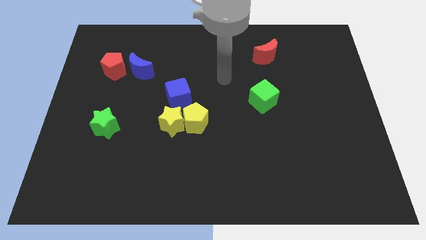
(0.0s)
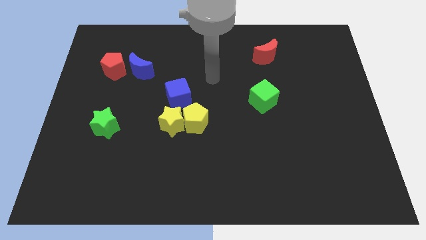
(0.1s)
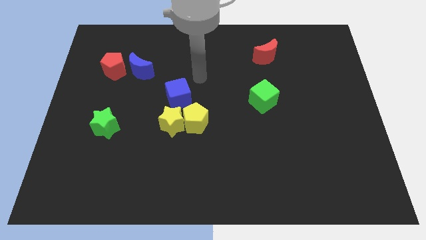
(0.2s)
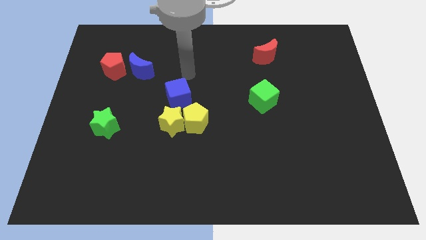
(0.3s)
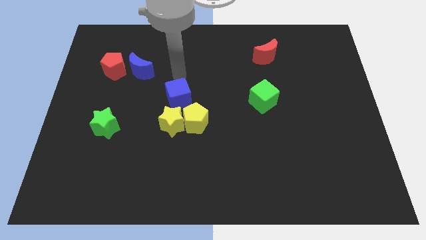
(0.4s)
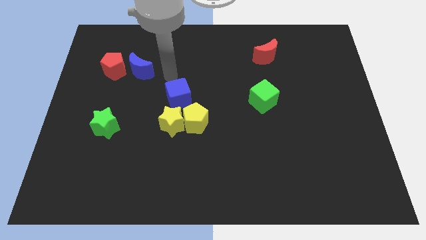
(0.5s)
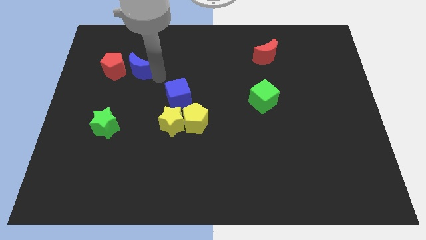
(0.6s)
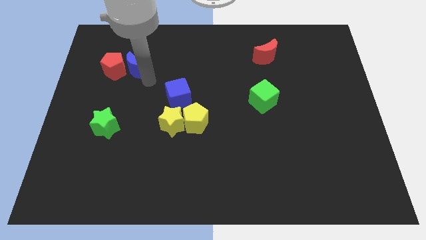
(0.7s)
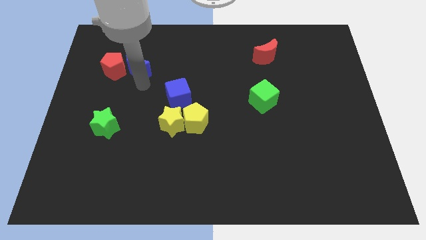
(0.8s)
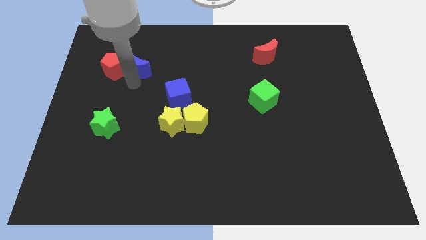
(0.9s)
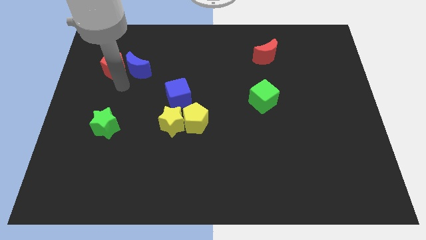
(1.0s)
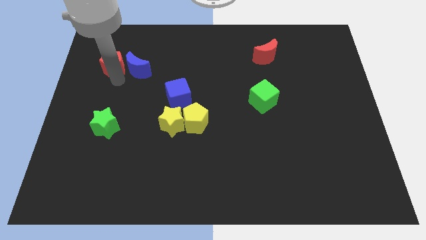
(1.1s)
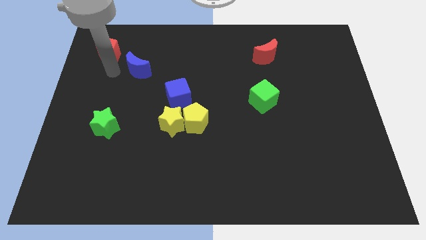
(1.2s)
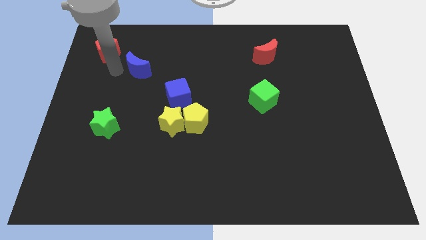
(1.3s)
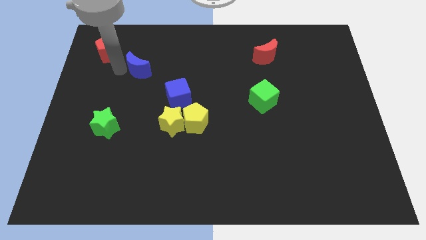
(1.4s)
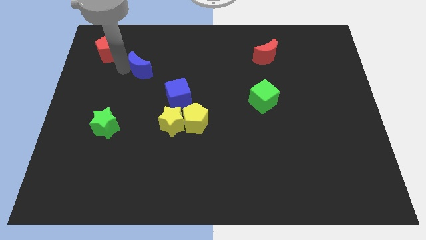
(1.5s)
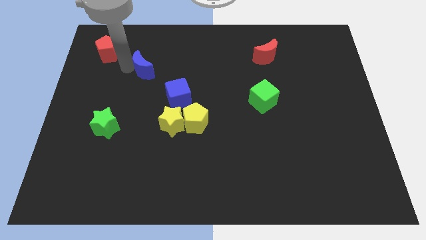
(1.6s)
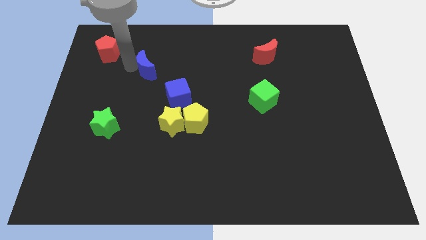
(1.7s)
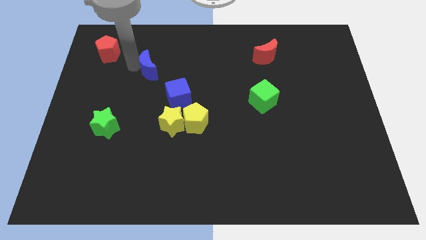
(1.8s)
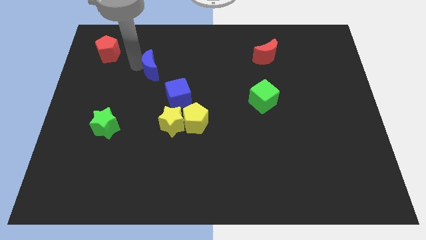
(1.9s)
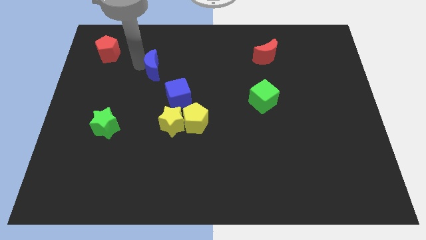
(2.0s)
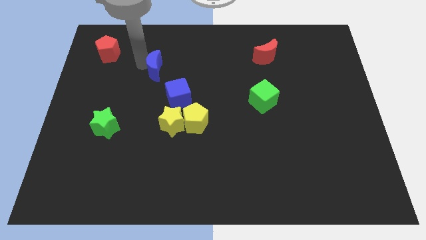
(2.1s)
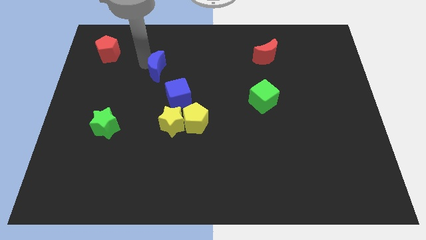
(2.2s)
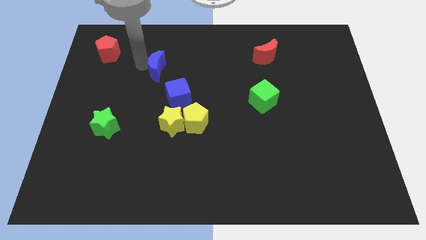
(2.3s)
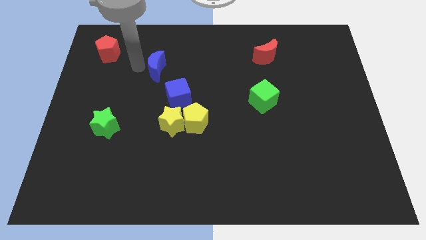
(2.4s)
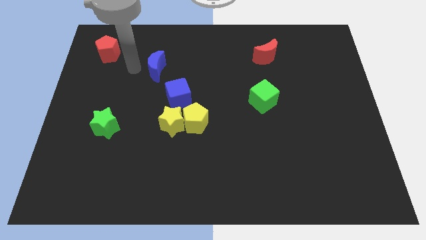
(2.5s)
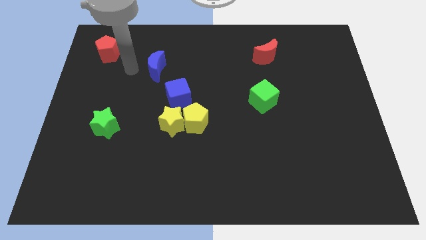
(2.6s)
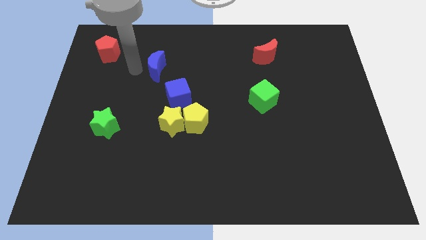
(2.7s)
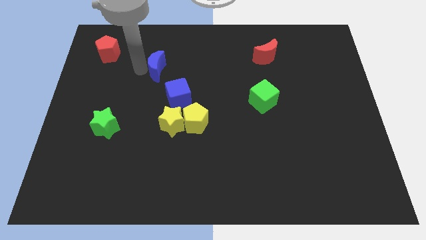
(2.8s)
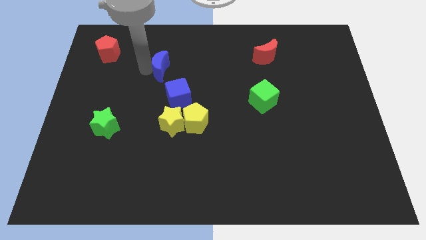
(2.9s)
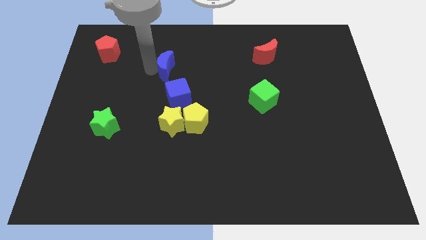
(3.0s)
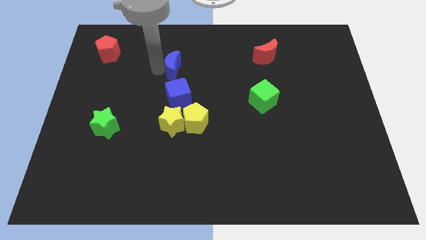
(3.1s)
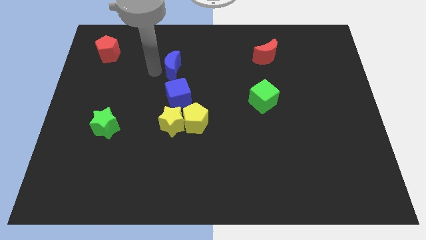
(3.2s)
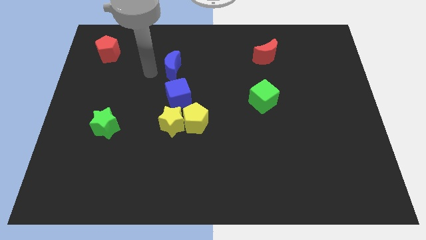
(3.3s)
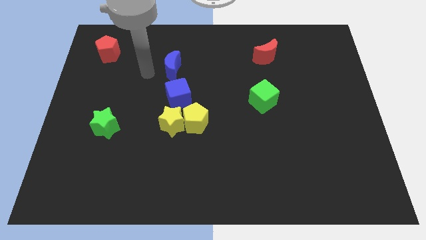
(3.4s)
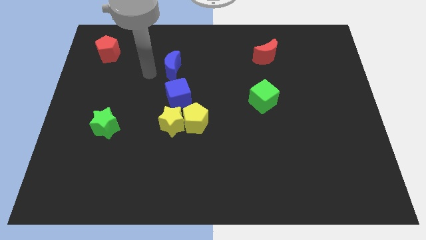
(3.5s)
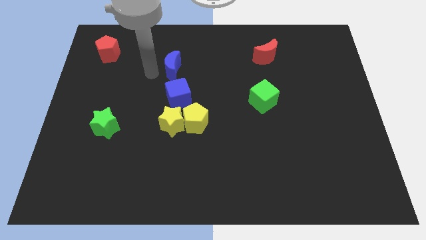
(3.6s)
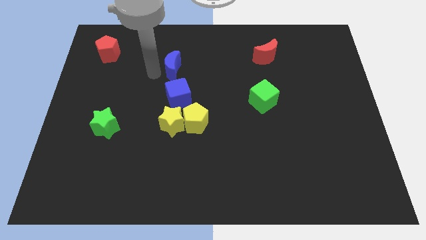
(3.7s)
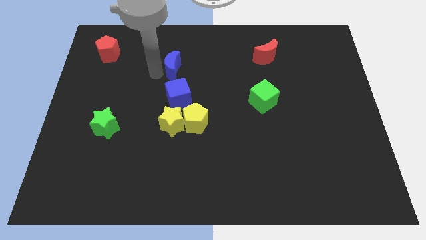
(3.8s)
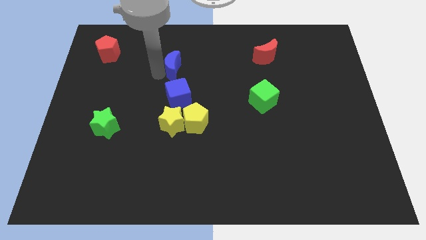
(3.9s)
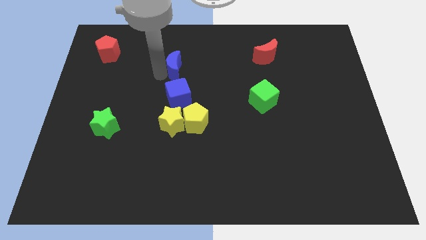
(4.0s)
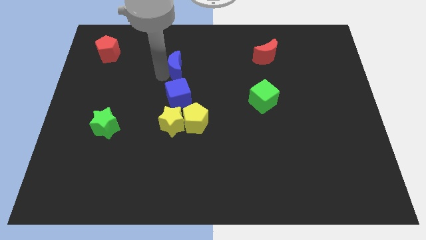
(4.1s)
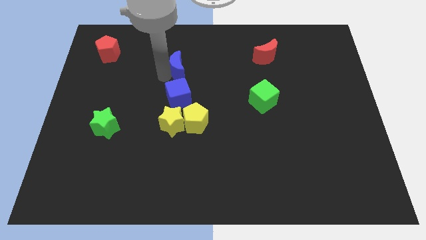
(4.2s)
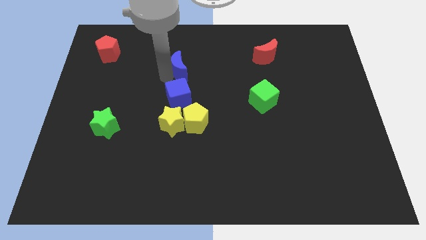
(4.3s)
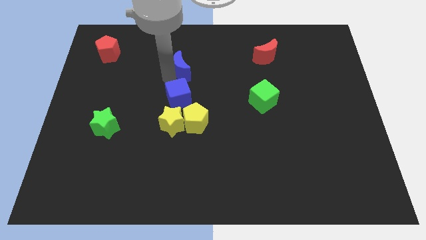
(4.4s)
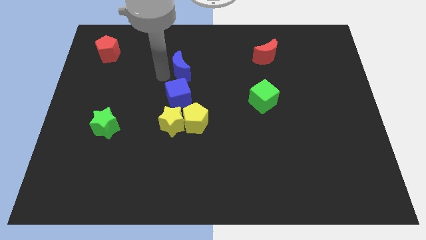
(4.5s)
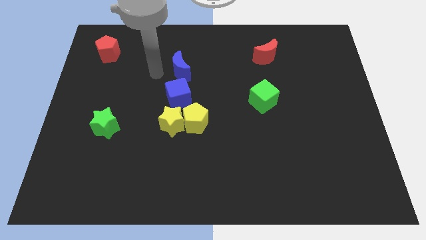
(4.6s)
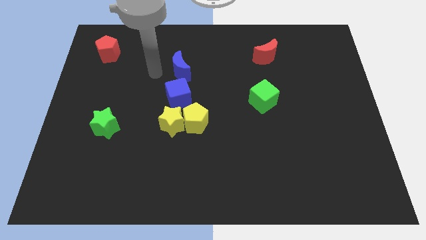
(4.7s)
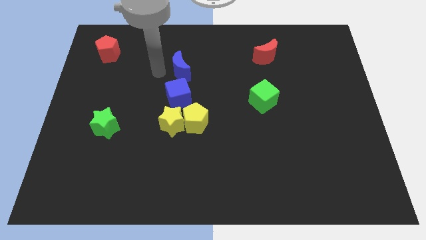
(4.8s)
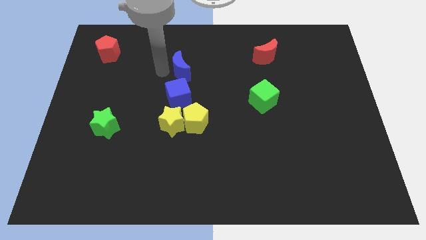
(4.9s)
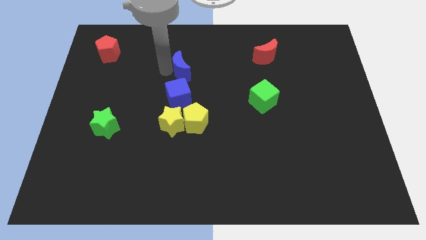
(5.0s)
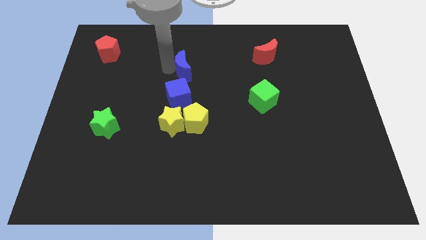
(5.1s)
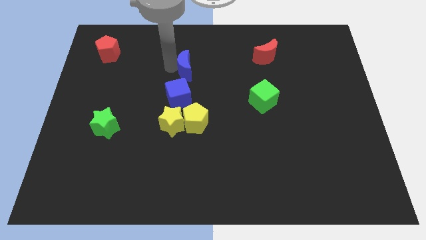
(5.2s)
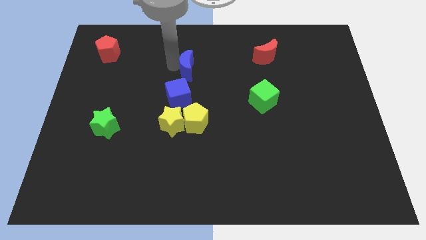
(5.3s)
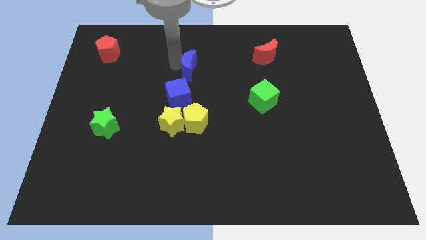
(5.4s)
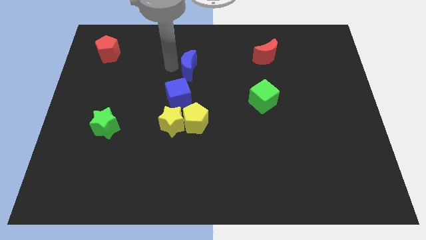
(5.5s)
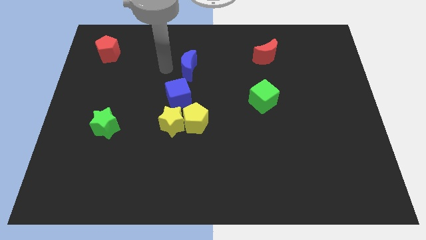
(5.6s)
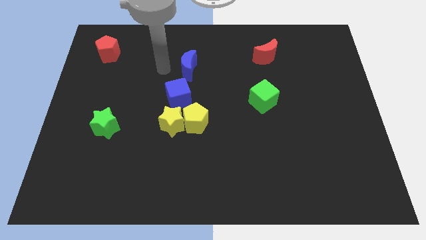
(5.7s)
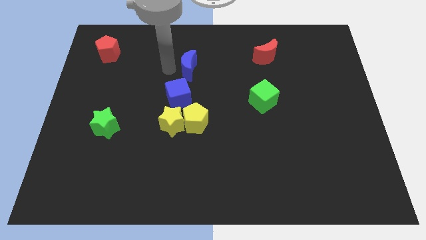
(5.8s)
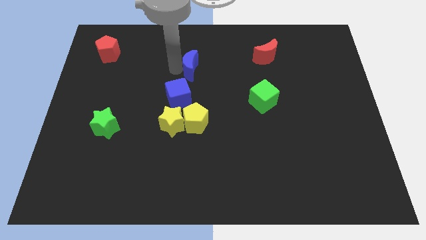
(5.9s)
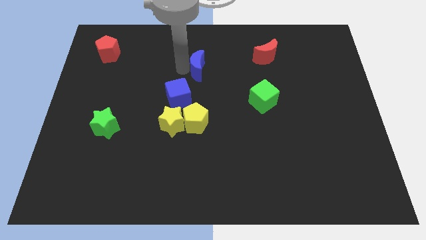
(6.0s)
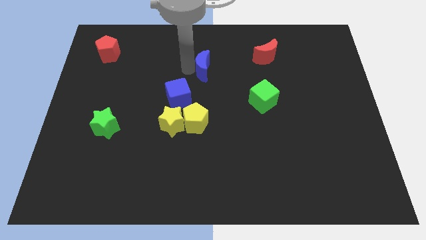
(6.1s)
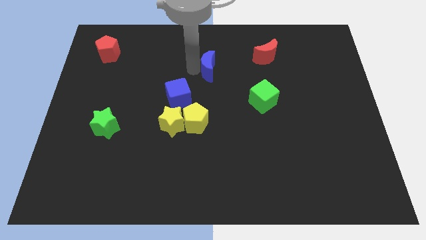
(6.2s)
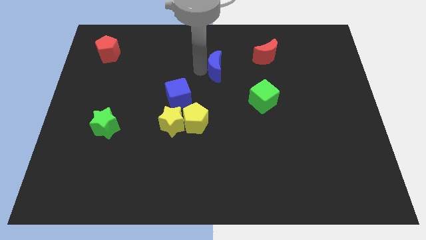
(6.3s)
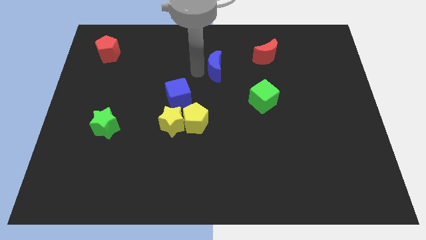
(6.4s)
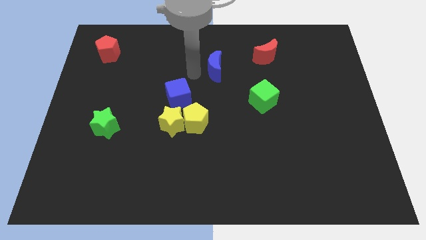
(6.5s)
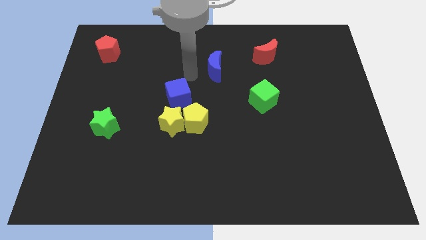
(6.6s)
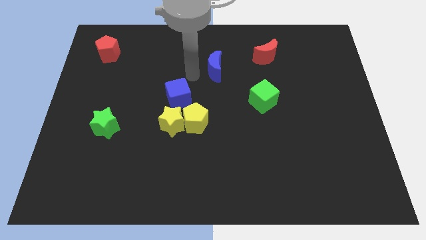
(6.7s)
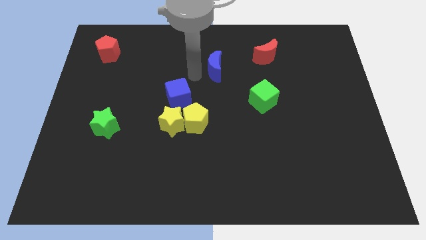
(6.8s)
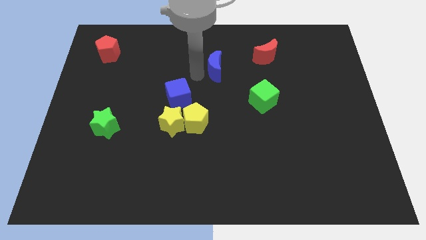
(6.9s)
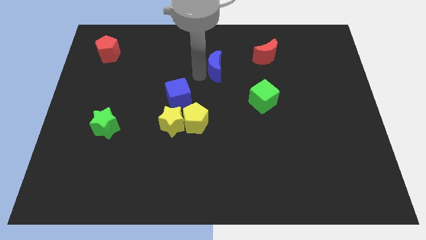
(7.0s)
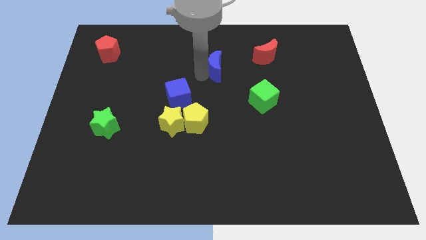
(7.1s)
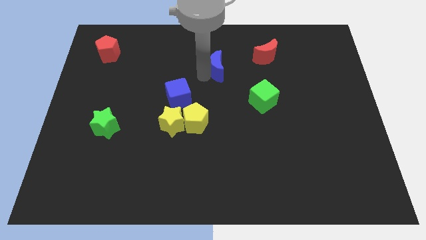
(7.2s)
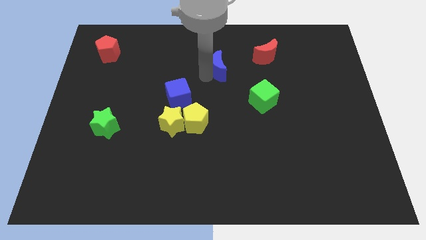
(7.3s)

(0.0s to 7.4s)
push the blue moon to the right

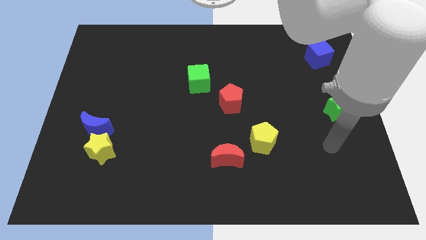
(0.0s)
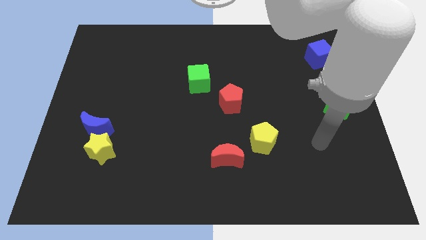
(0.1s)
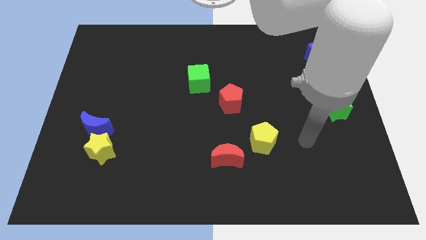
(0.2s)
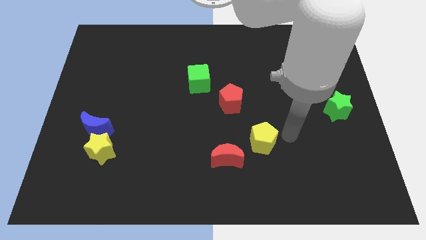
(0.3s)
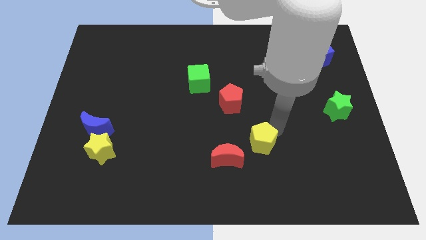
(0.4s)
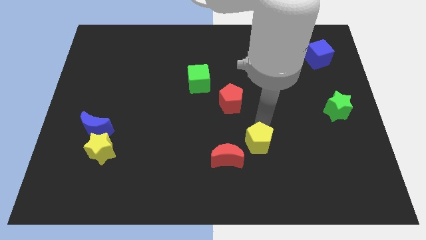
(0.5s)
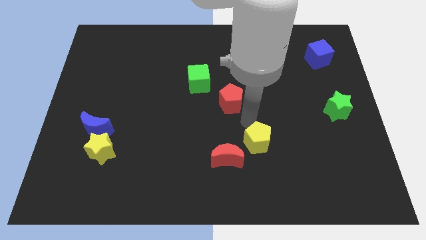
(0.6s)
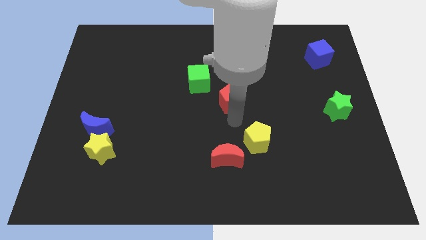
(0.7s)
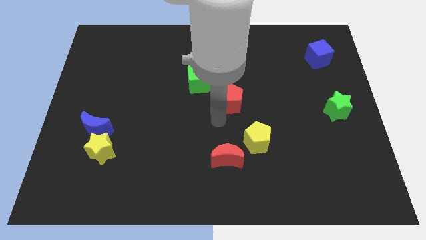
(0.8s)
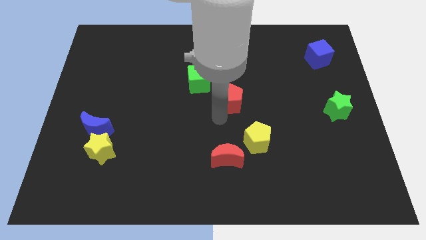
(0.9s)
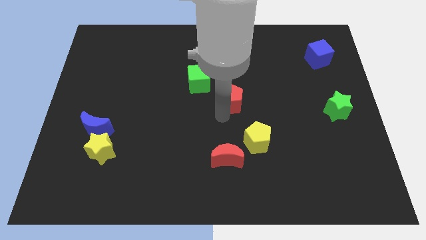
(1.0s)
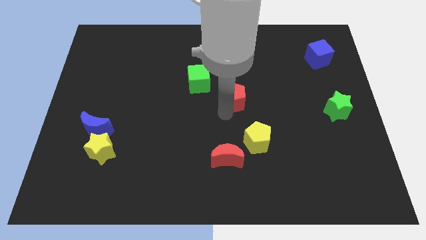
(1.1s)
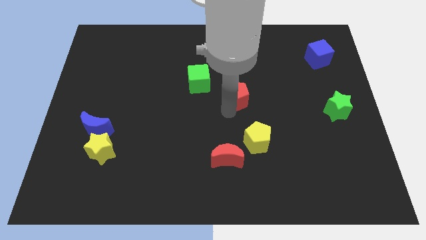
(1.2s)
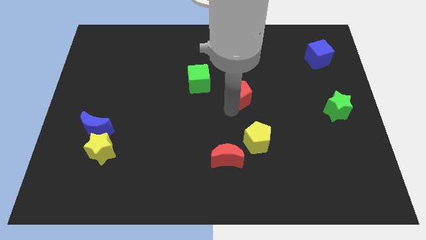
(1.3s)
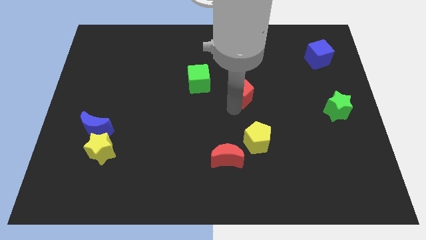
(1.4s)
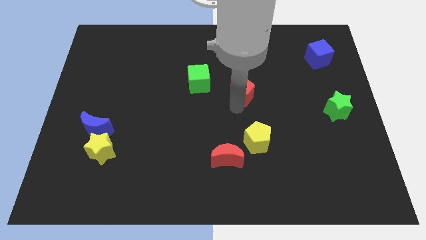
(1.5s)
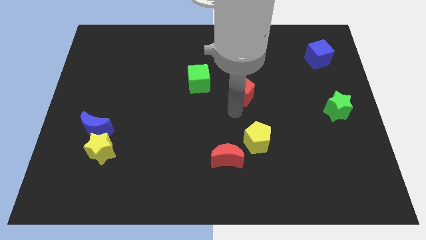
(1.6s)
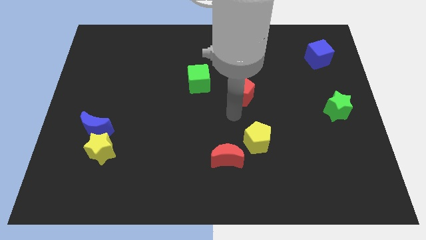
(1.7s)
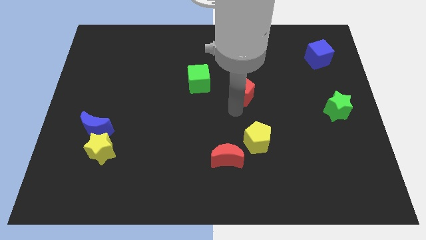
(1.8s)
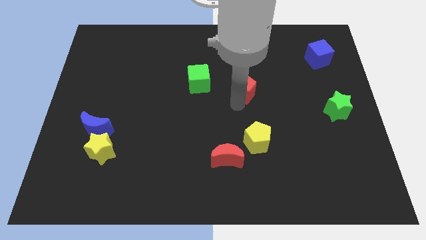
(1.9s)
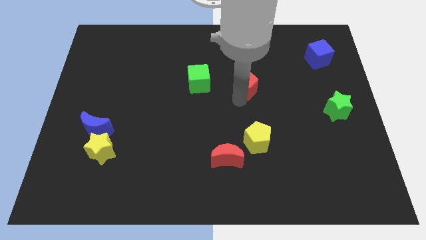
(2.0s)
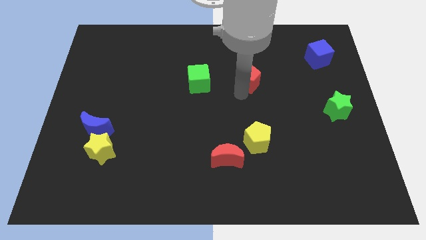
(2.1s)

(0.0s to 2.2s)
move the red pentagon a little up and to the right
